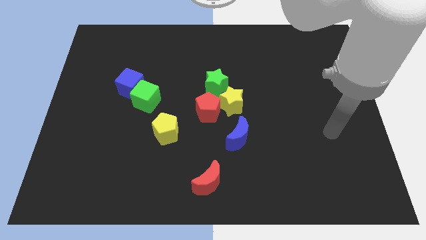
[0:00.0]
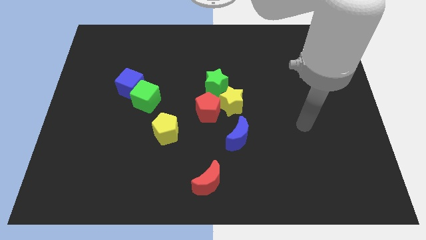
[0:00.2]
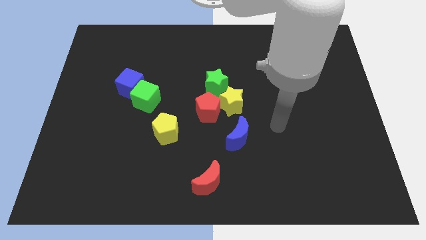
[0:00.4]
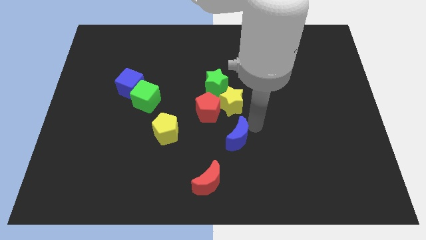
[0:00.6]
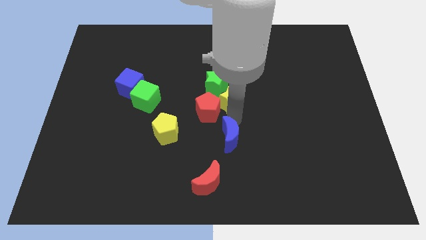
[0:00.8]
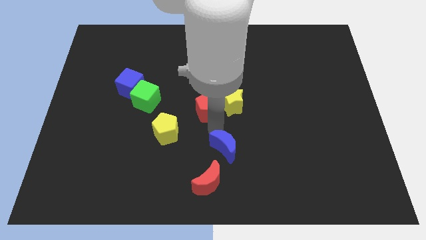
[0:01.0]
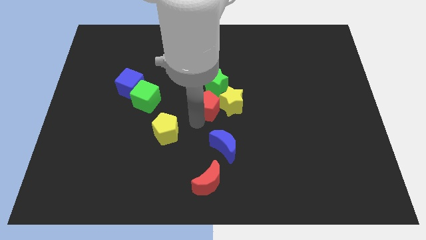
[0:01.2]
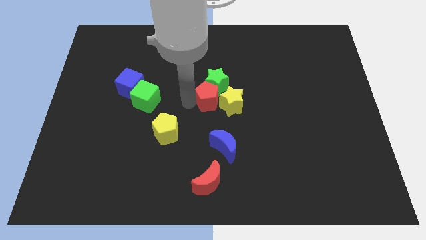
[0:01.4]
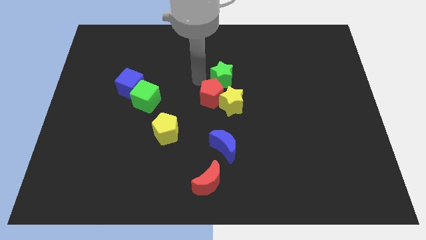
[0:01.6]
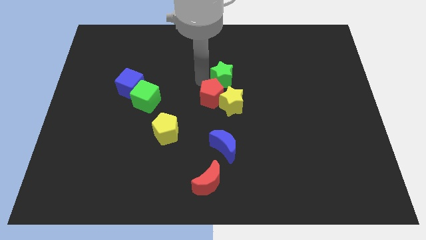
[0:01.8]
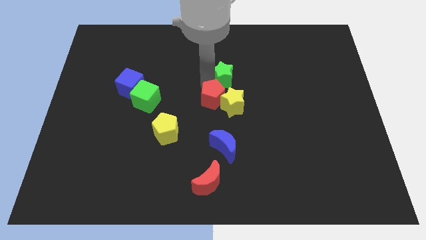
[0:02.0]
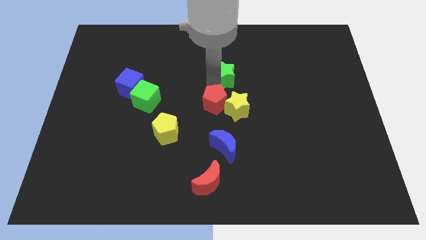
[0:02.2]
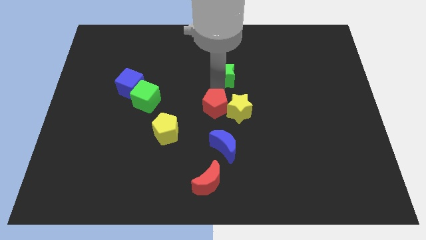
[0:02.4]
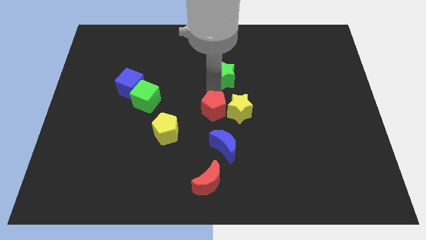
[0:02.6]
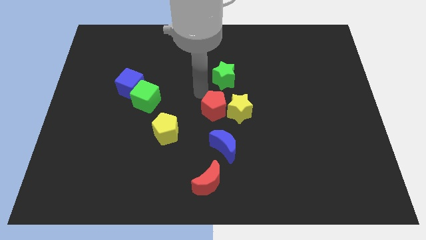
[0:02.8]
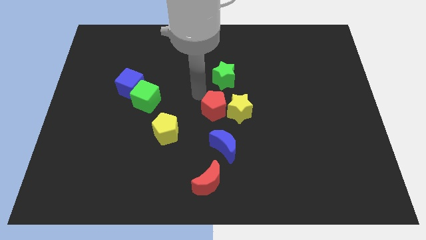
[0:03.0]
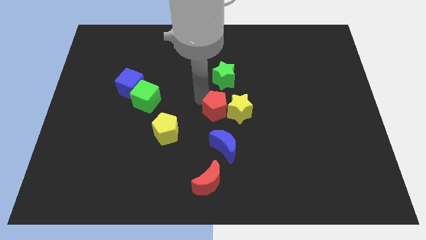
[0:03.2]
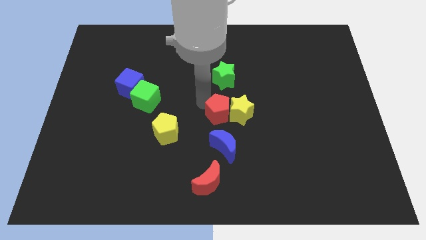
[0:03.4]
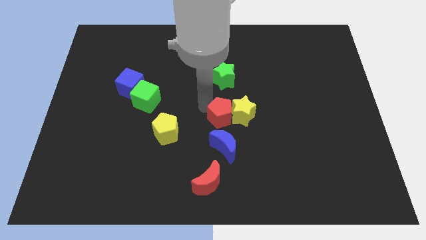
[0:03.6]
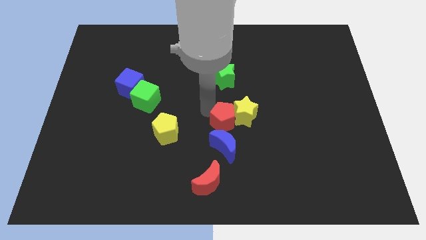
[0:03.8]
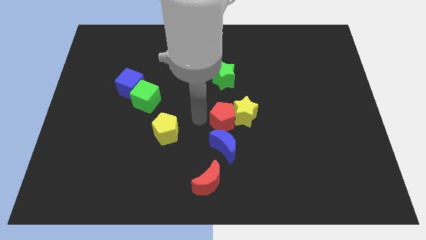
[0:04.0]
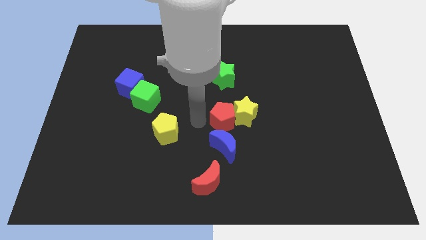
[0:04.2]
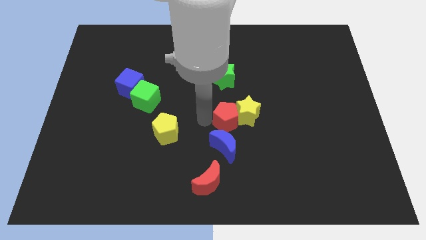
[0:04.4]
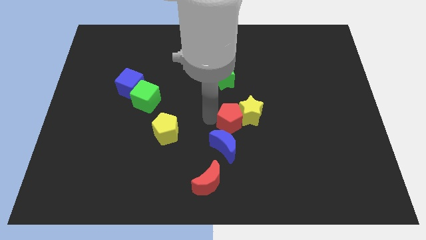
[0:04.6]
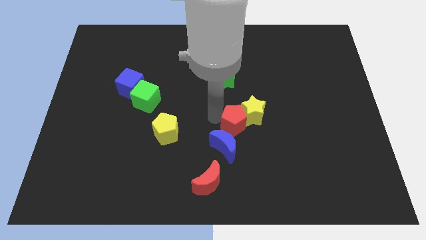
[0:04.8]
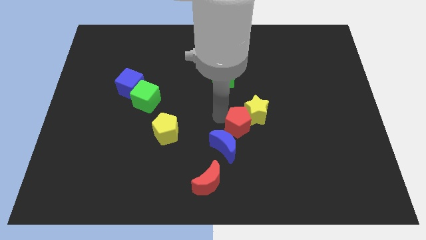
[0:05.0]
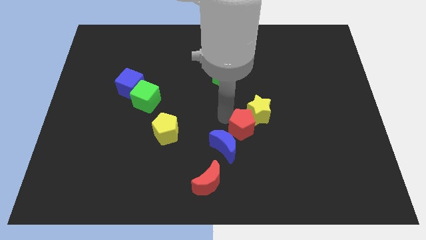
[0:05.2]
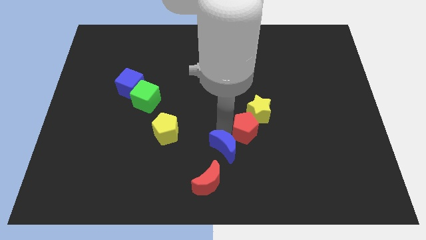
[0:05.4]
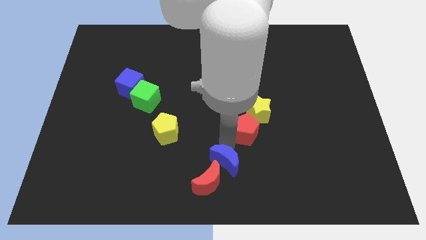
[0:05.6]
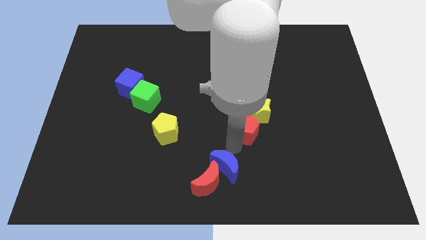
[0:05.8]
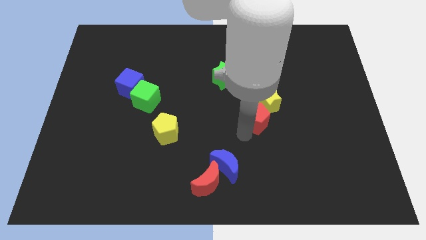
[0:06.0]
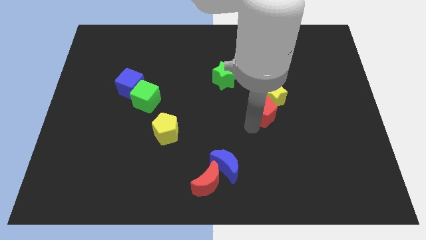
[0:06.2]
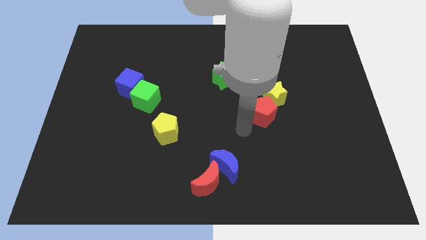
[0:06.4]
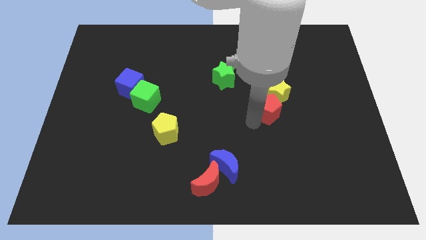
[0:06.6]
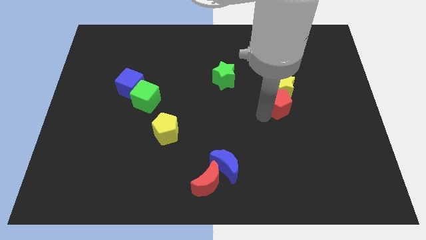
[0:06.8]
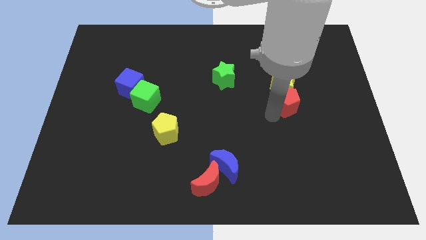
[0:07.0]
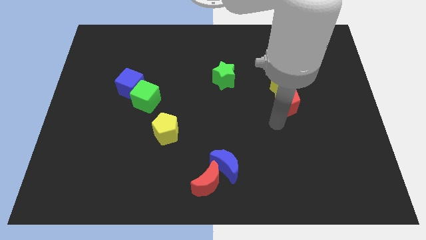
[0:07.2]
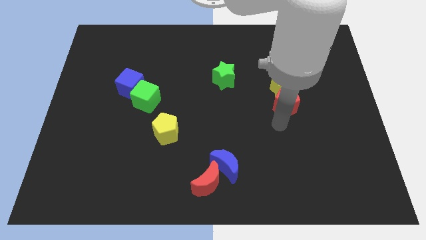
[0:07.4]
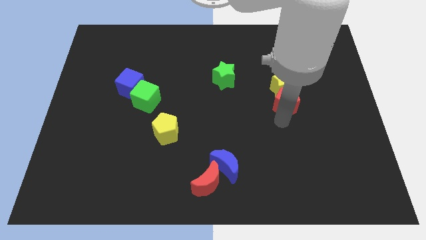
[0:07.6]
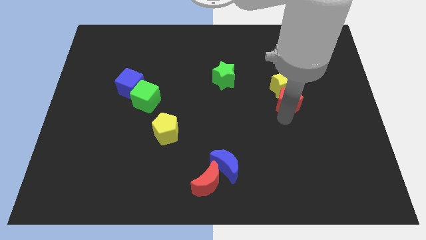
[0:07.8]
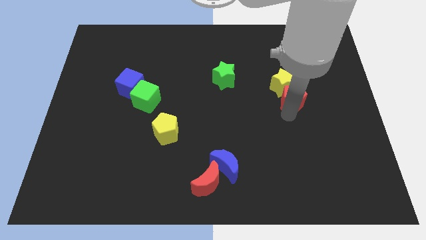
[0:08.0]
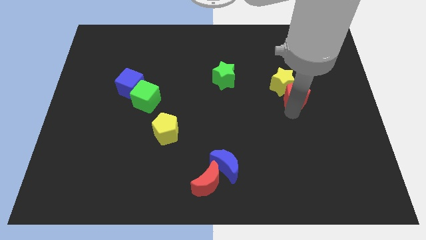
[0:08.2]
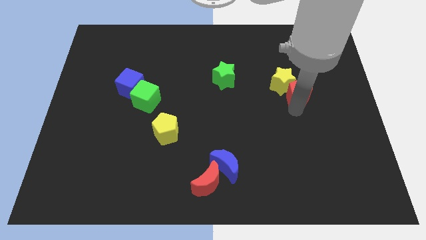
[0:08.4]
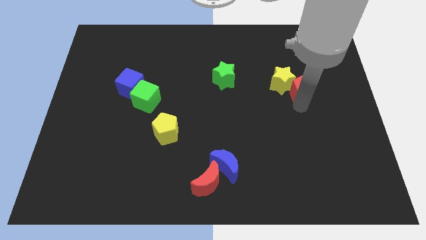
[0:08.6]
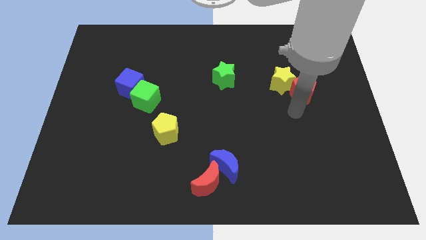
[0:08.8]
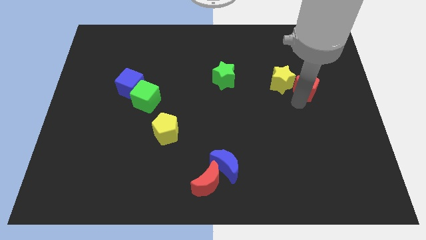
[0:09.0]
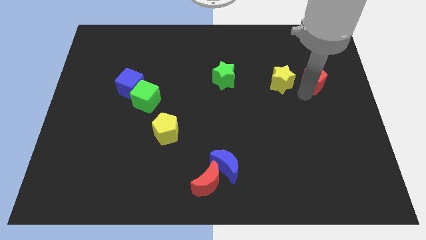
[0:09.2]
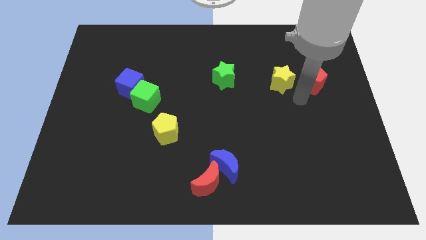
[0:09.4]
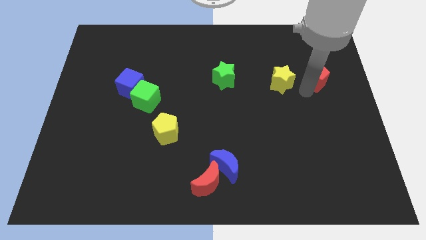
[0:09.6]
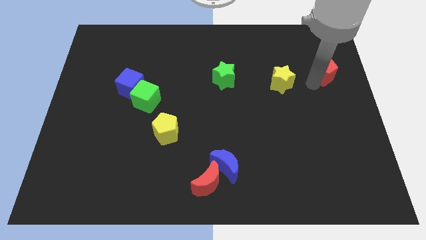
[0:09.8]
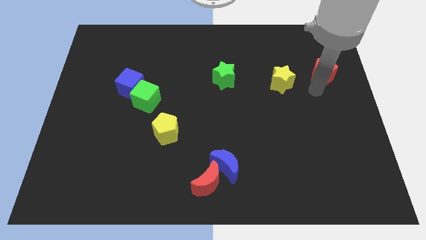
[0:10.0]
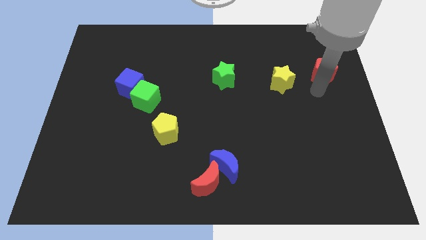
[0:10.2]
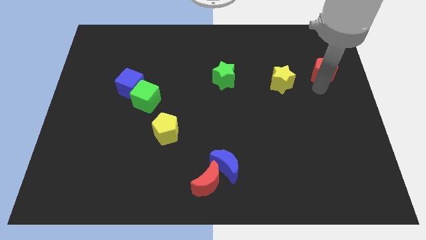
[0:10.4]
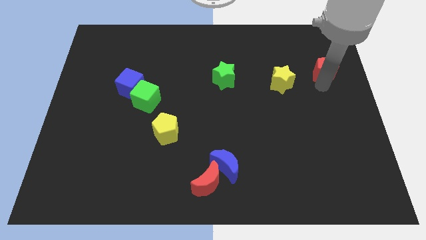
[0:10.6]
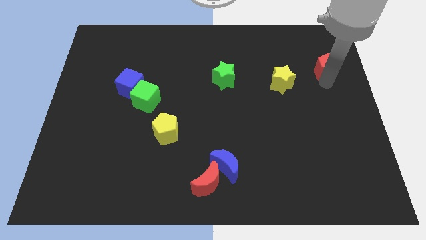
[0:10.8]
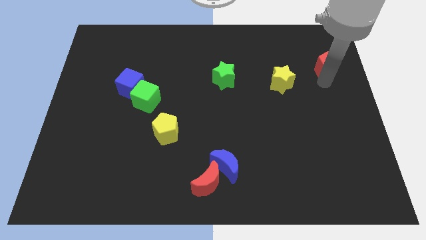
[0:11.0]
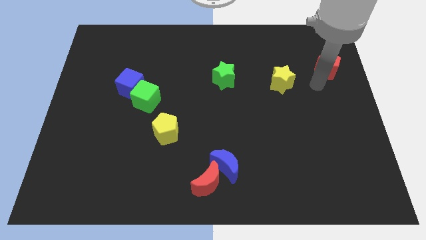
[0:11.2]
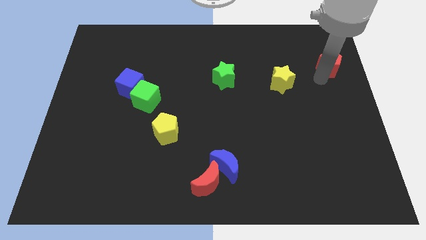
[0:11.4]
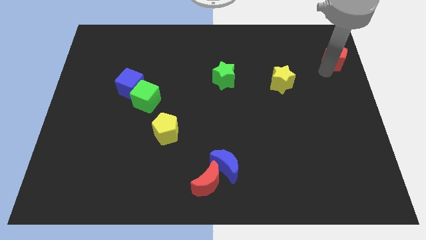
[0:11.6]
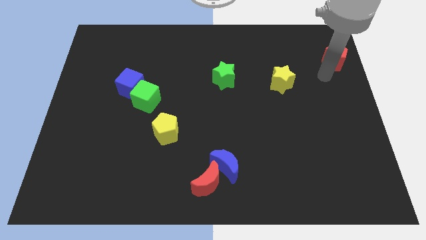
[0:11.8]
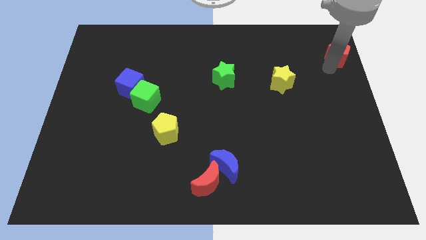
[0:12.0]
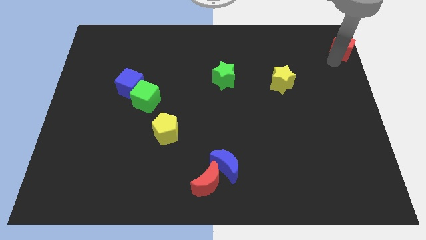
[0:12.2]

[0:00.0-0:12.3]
slide the red pentagon to the upper right corner
